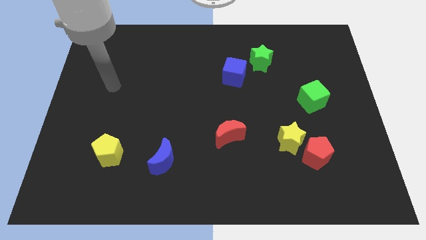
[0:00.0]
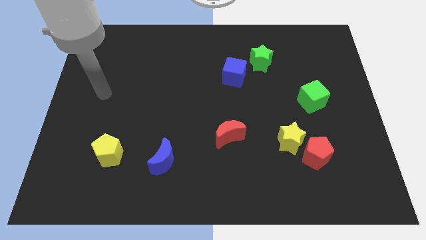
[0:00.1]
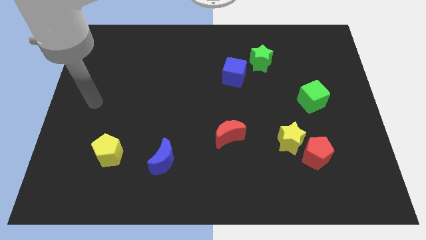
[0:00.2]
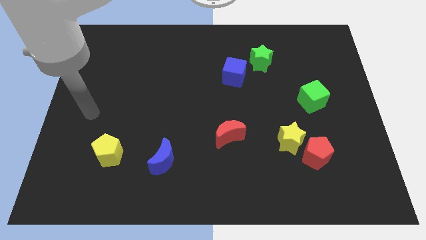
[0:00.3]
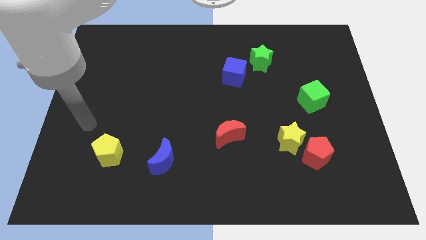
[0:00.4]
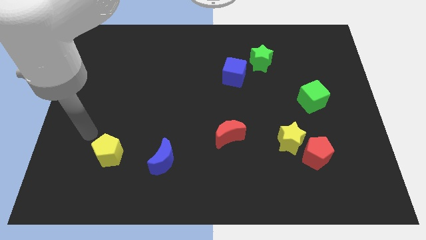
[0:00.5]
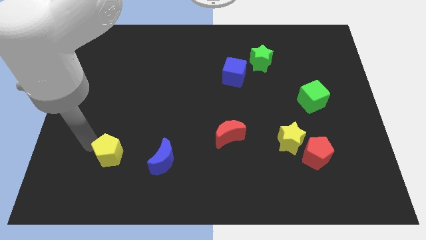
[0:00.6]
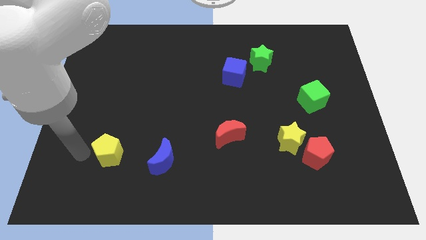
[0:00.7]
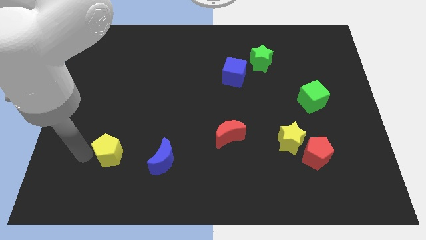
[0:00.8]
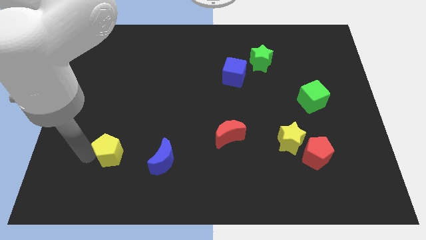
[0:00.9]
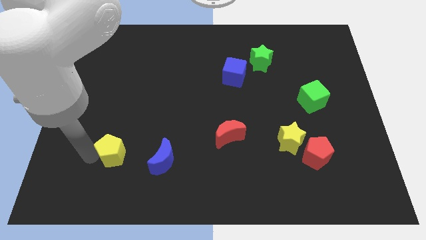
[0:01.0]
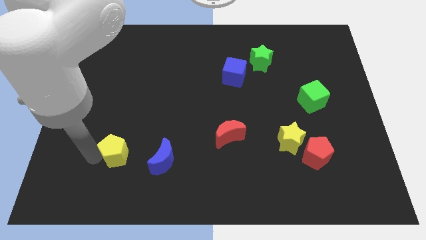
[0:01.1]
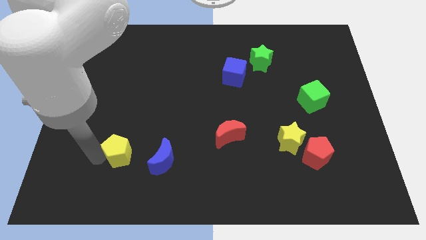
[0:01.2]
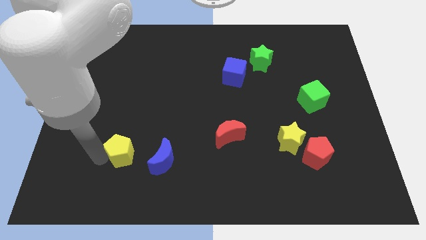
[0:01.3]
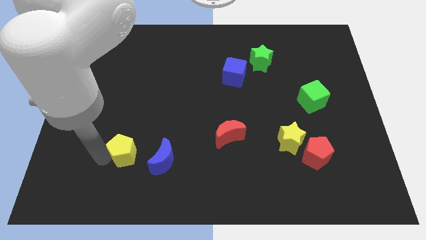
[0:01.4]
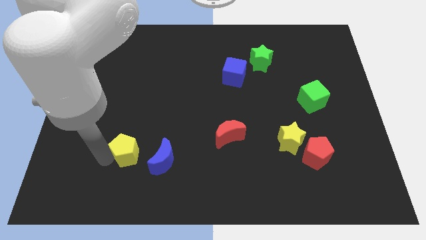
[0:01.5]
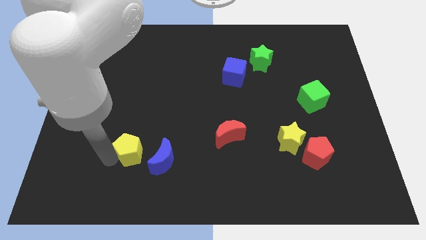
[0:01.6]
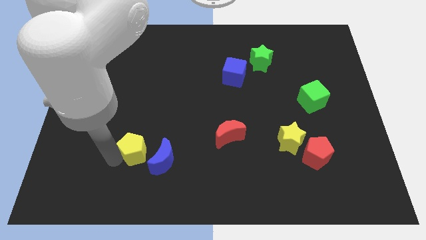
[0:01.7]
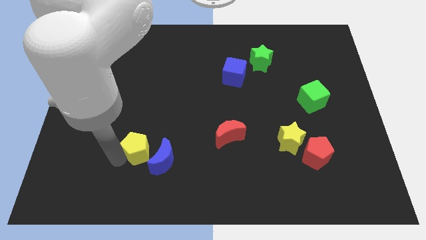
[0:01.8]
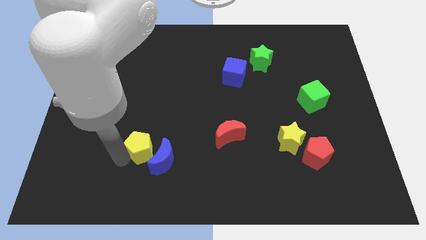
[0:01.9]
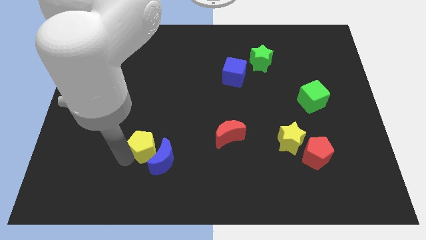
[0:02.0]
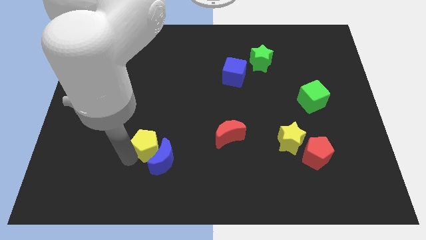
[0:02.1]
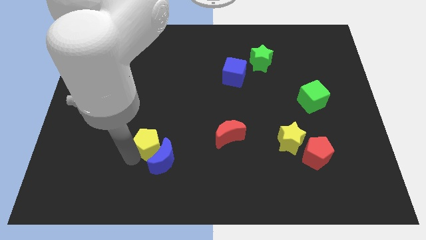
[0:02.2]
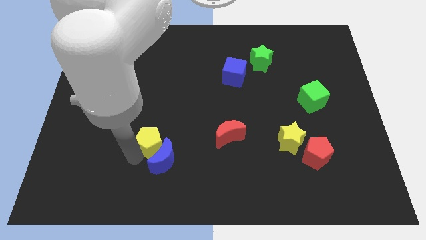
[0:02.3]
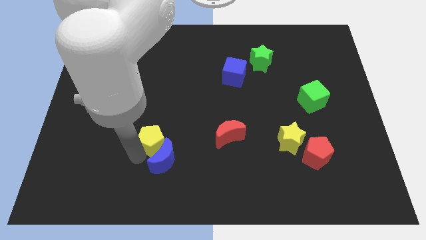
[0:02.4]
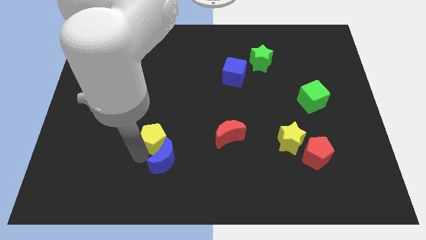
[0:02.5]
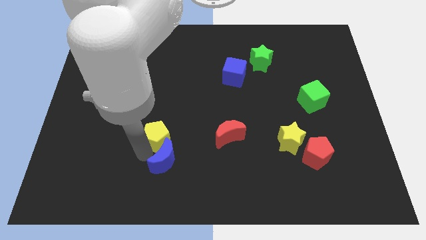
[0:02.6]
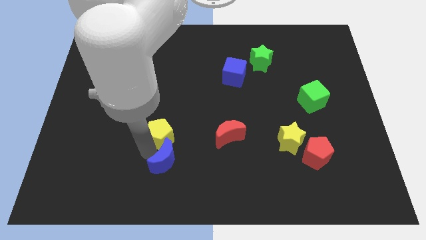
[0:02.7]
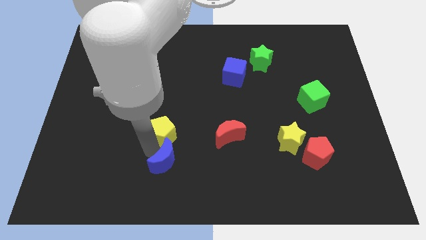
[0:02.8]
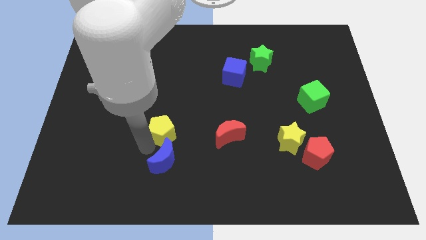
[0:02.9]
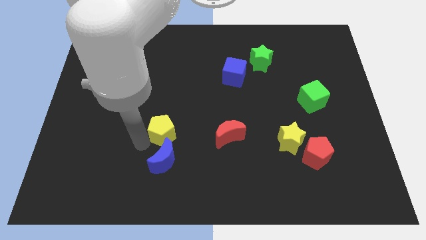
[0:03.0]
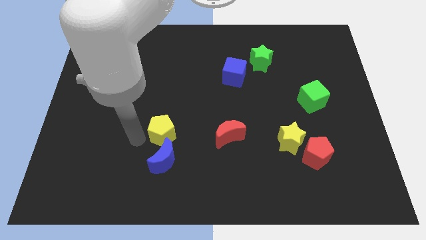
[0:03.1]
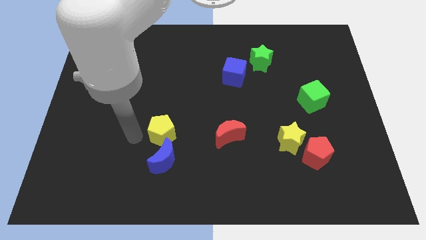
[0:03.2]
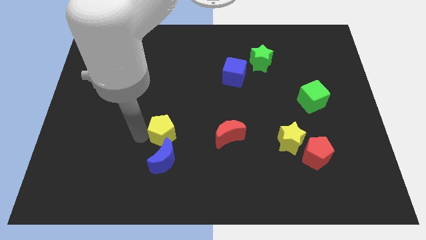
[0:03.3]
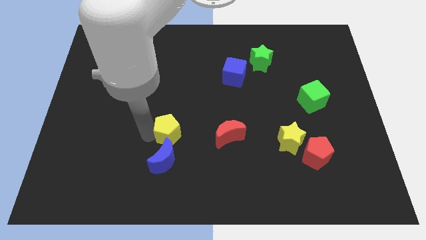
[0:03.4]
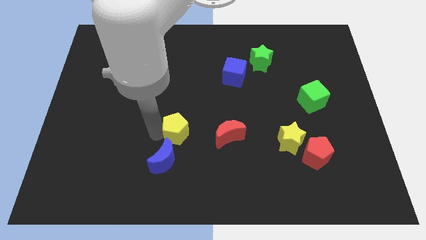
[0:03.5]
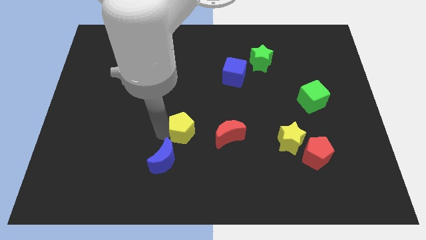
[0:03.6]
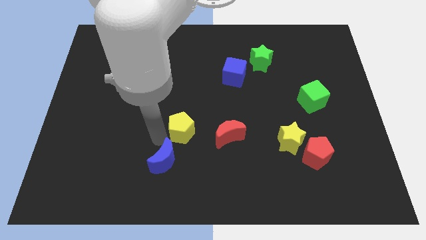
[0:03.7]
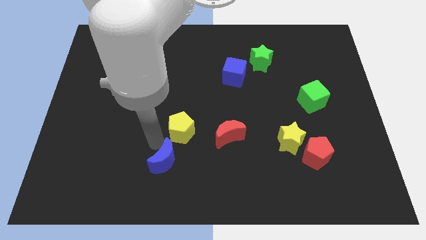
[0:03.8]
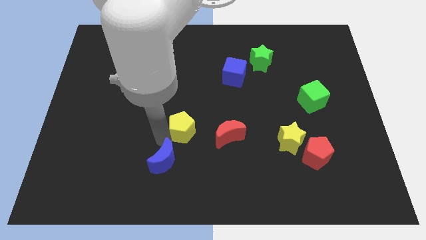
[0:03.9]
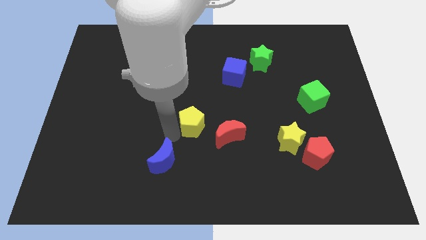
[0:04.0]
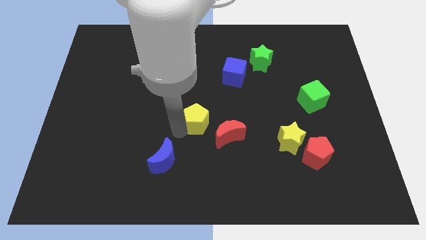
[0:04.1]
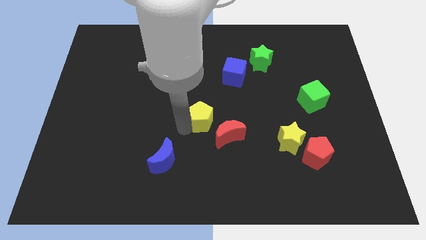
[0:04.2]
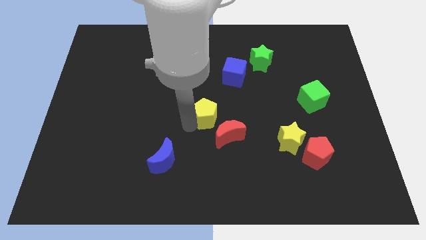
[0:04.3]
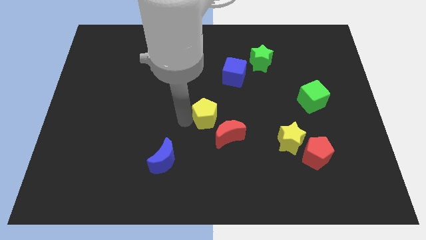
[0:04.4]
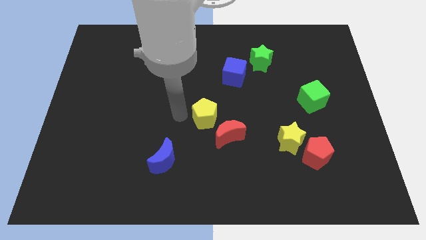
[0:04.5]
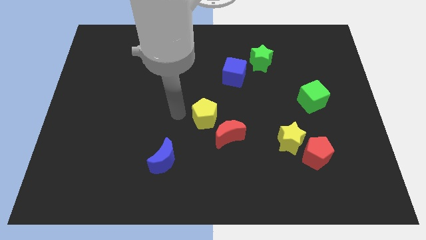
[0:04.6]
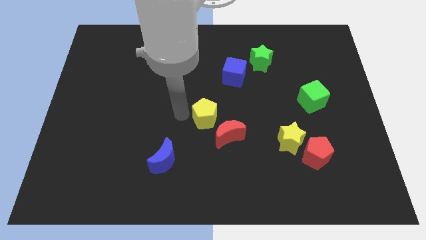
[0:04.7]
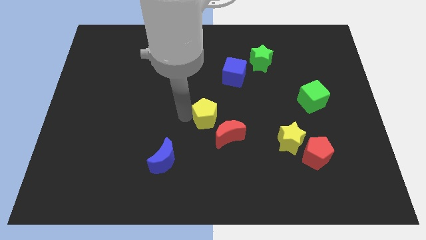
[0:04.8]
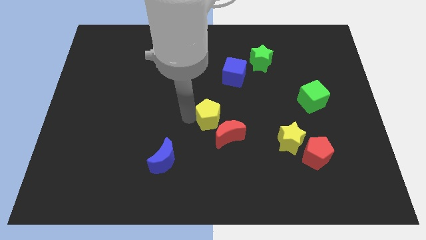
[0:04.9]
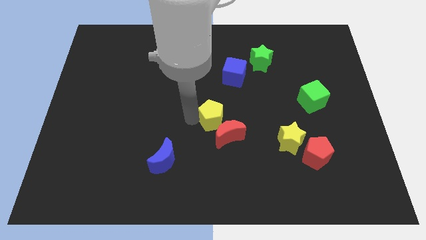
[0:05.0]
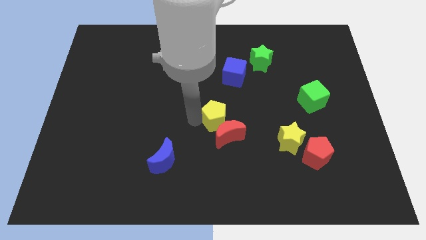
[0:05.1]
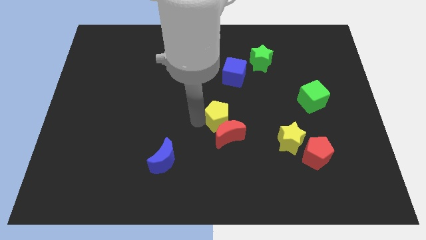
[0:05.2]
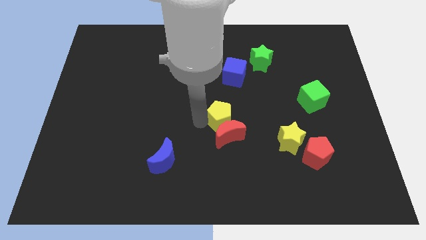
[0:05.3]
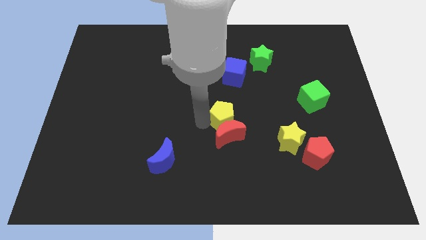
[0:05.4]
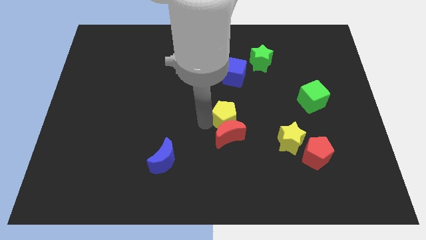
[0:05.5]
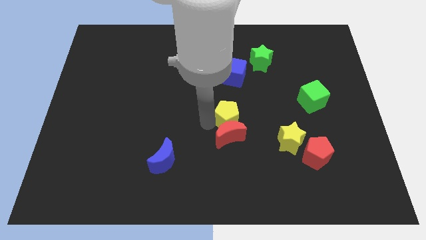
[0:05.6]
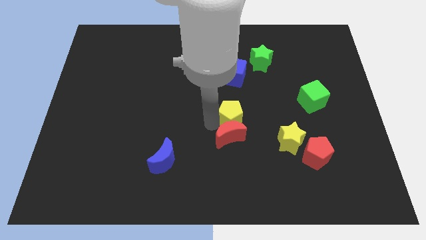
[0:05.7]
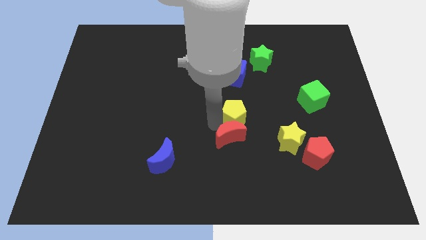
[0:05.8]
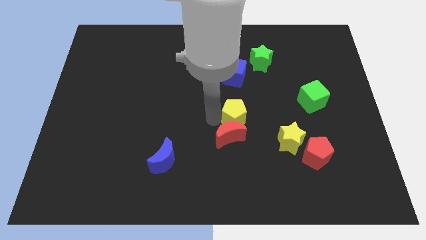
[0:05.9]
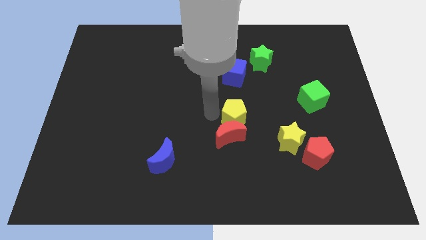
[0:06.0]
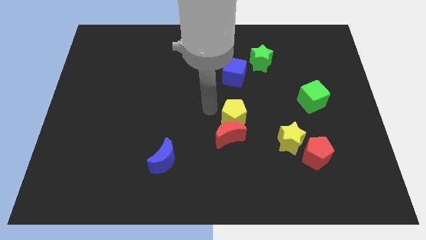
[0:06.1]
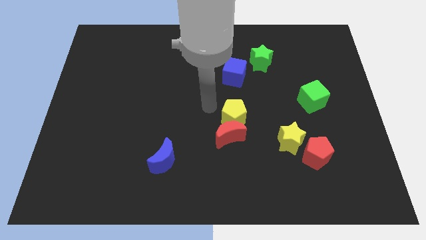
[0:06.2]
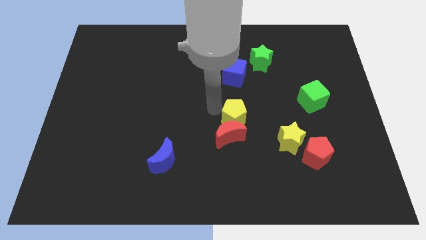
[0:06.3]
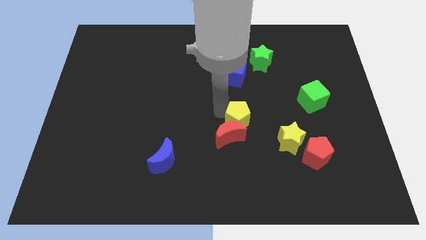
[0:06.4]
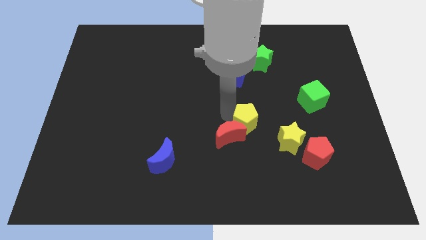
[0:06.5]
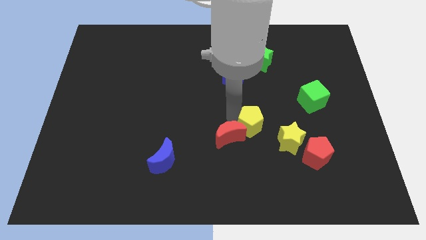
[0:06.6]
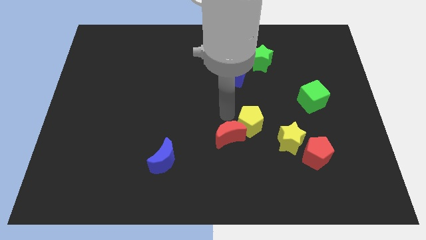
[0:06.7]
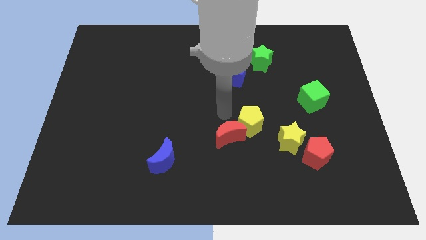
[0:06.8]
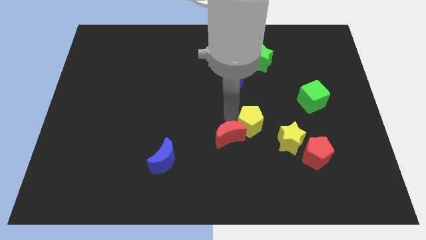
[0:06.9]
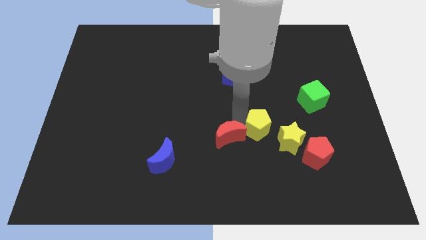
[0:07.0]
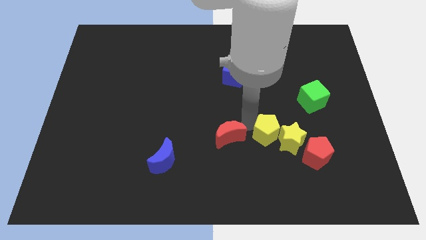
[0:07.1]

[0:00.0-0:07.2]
move the yellow pentagon towards the yellow star

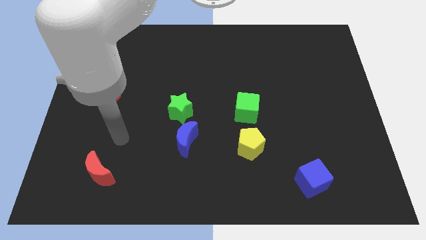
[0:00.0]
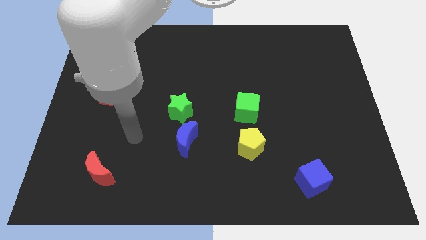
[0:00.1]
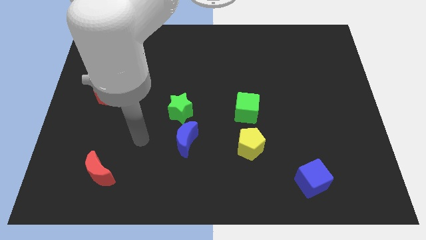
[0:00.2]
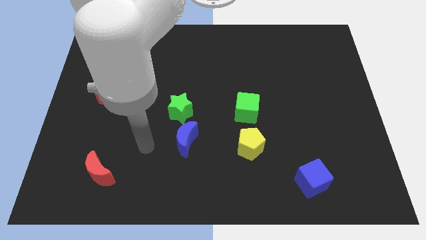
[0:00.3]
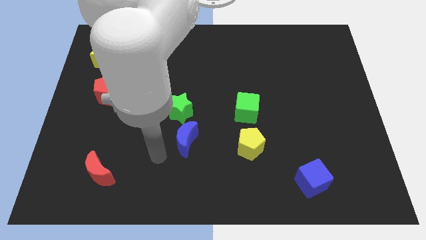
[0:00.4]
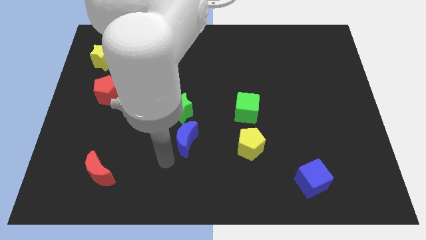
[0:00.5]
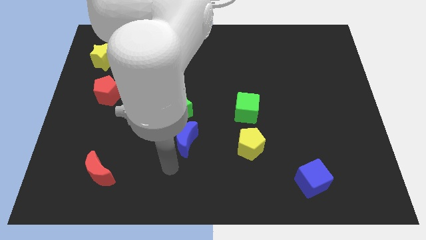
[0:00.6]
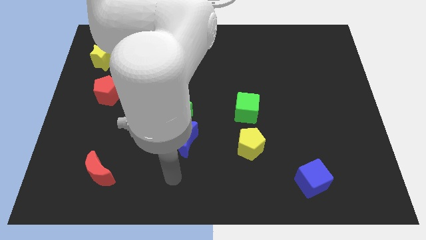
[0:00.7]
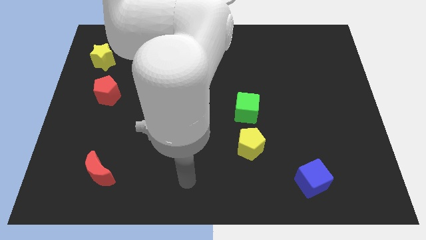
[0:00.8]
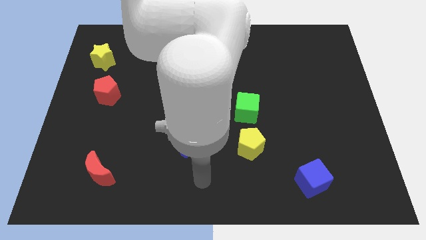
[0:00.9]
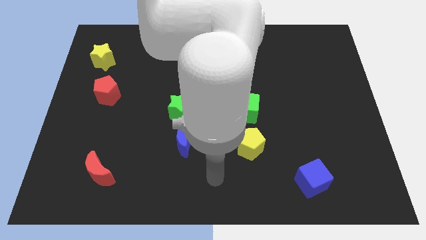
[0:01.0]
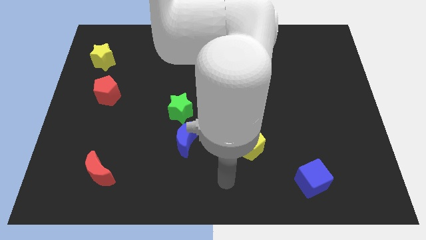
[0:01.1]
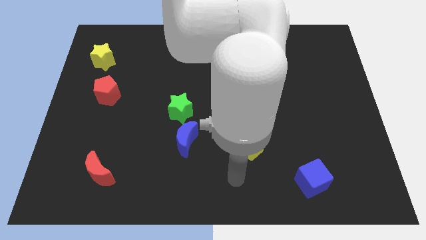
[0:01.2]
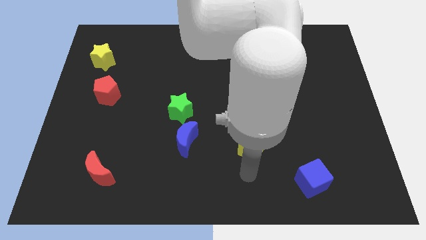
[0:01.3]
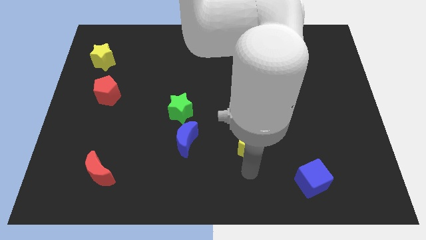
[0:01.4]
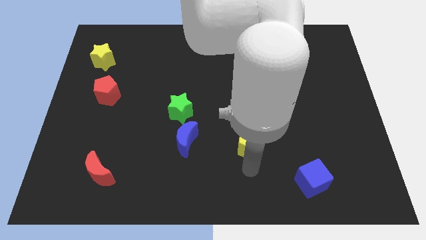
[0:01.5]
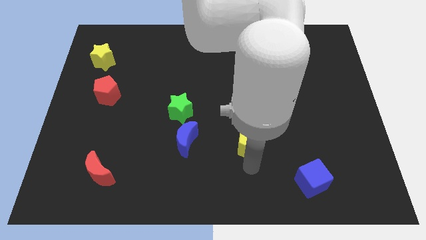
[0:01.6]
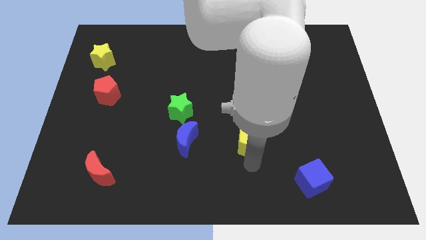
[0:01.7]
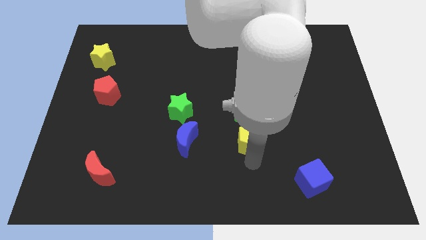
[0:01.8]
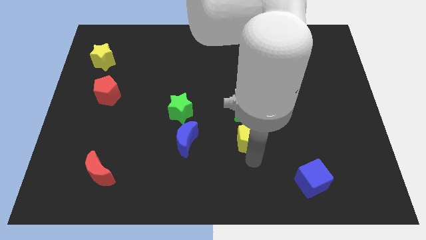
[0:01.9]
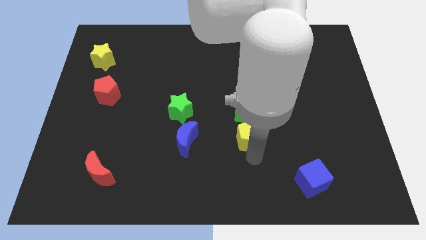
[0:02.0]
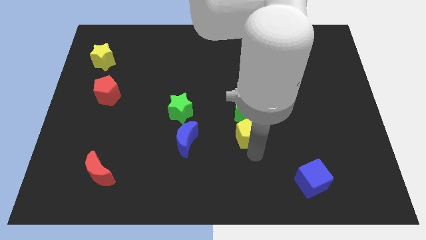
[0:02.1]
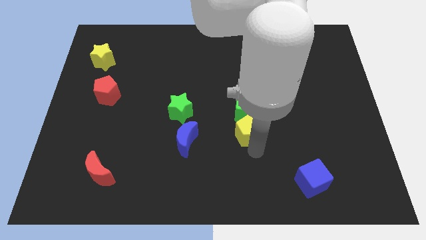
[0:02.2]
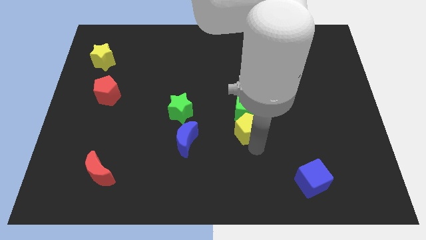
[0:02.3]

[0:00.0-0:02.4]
push the yellow pentagon close to the green cube
